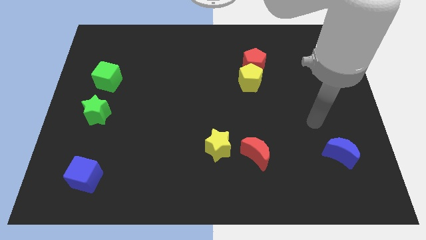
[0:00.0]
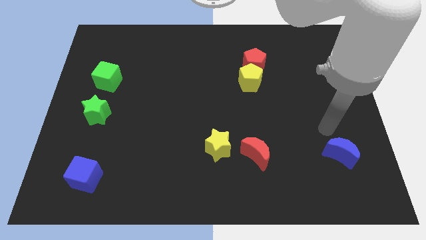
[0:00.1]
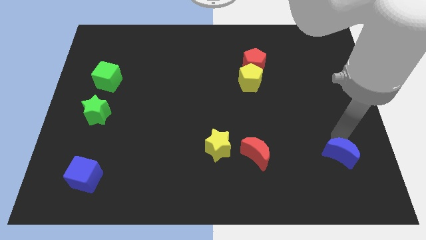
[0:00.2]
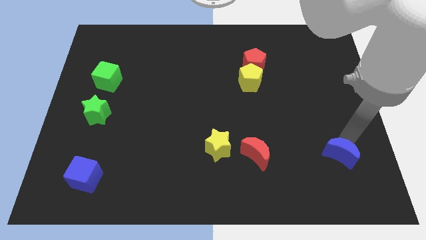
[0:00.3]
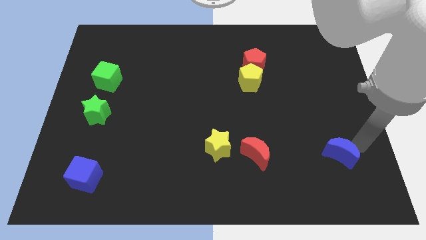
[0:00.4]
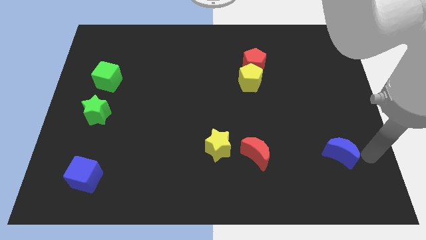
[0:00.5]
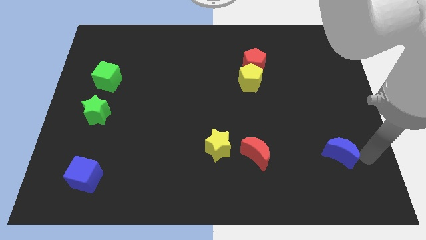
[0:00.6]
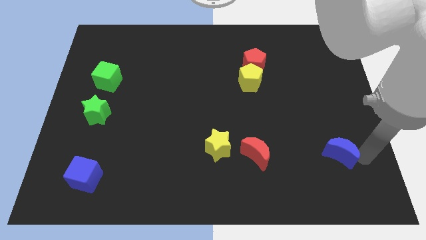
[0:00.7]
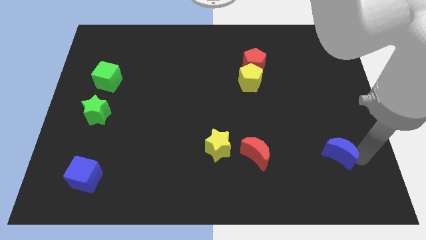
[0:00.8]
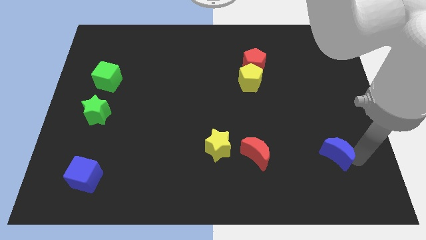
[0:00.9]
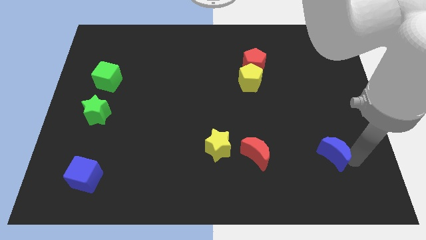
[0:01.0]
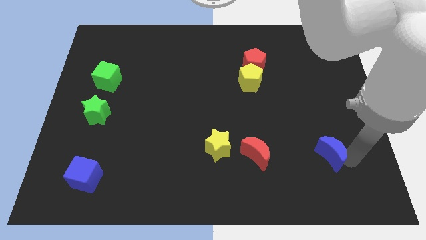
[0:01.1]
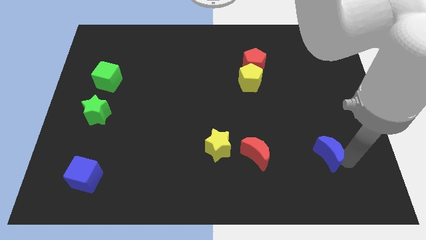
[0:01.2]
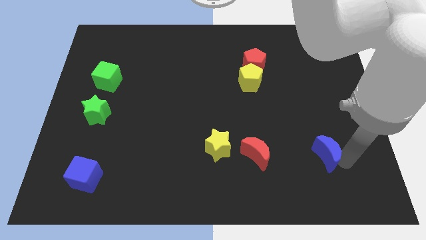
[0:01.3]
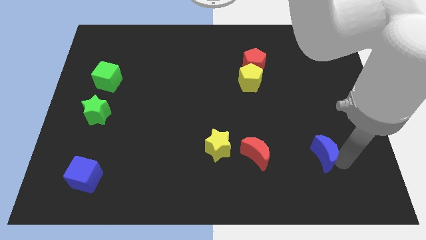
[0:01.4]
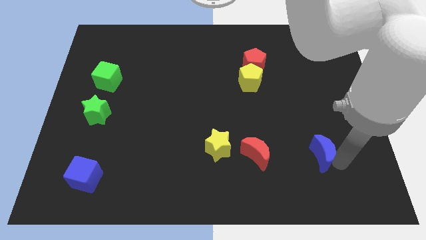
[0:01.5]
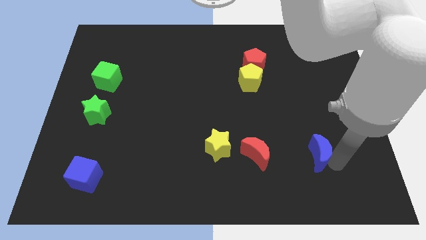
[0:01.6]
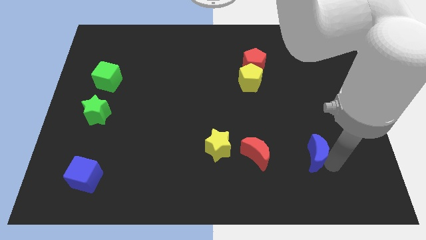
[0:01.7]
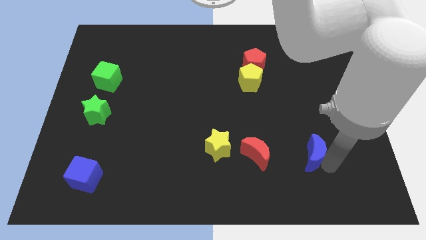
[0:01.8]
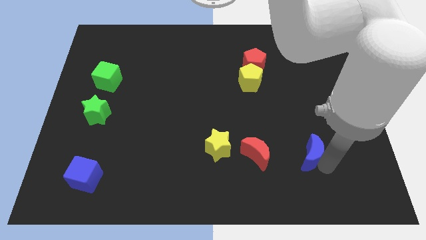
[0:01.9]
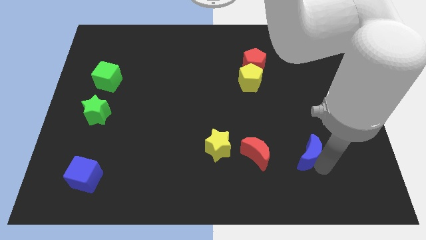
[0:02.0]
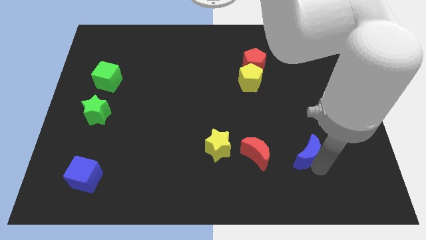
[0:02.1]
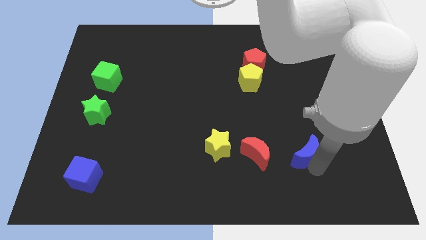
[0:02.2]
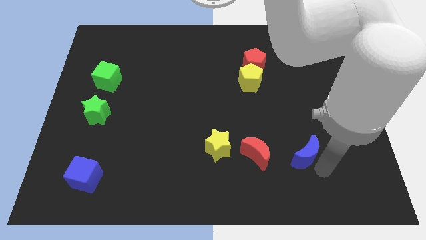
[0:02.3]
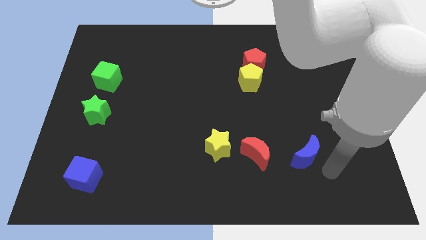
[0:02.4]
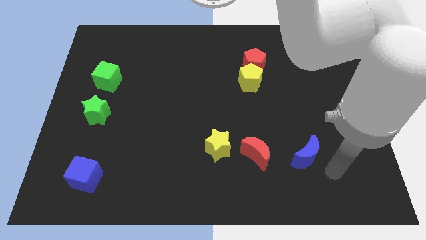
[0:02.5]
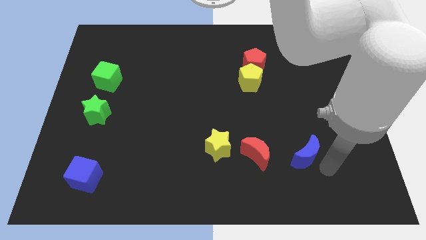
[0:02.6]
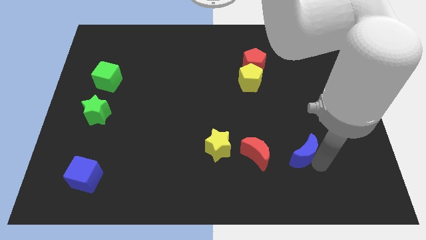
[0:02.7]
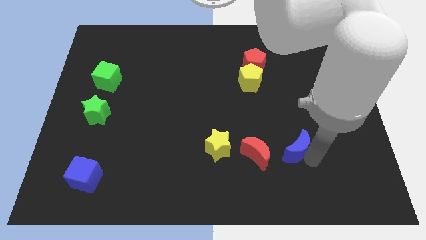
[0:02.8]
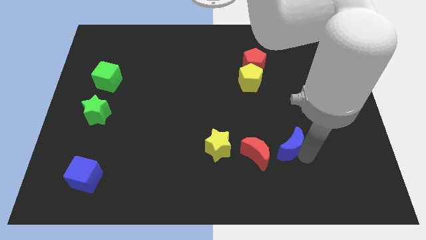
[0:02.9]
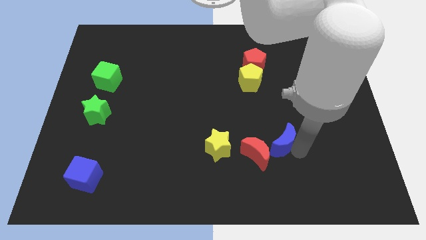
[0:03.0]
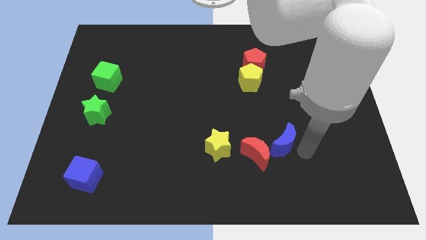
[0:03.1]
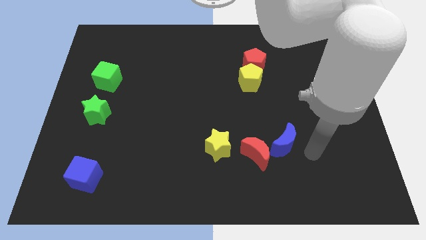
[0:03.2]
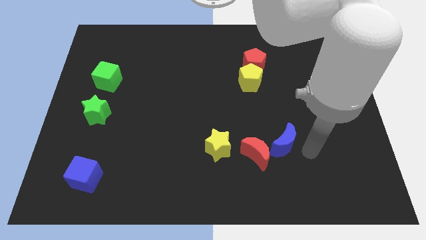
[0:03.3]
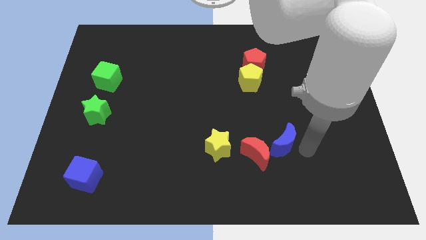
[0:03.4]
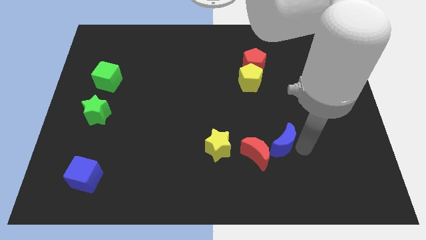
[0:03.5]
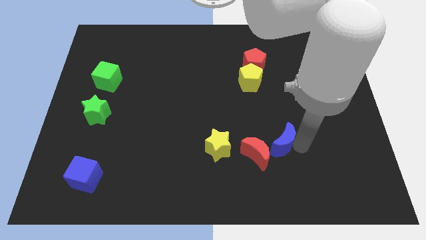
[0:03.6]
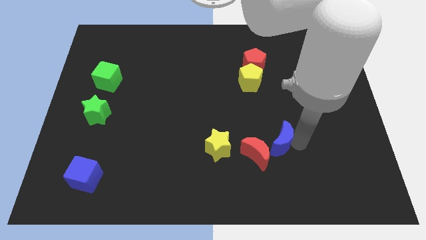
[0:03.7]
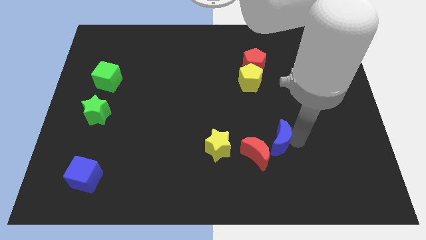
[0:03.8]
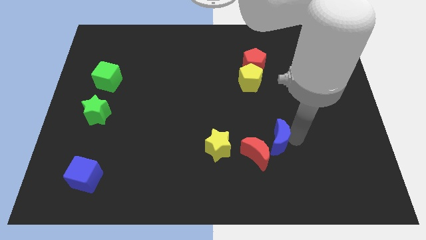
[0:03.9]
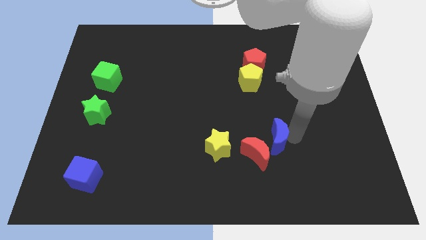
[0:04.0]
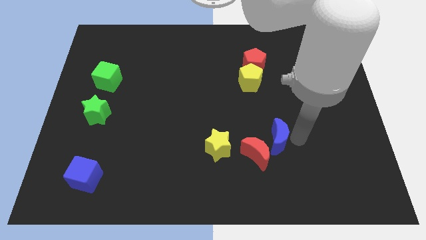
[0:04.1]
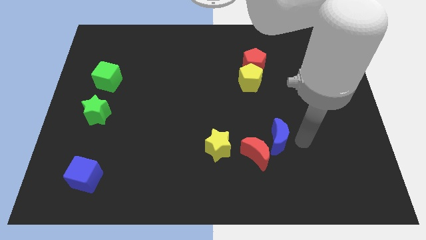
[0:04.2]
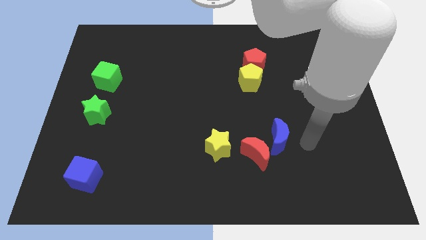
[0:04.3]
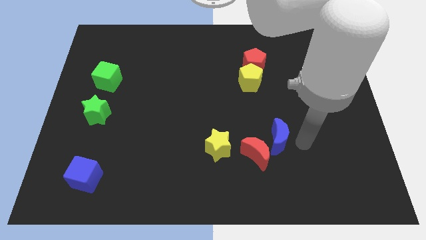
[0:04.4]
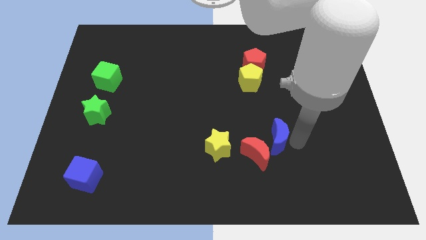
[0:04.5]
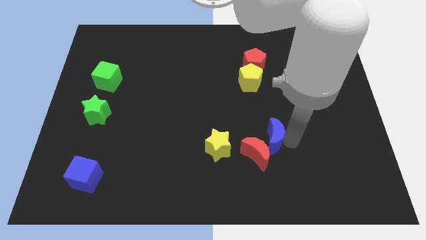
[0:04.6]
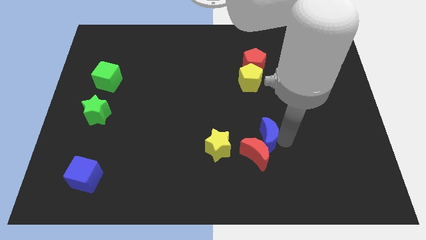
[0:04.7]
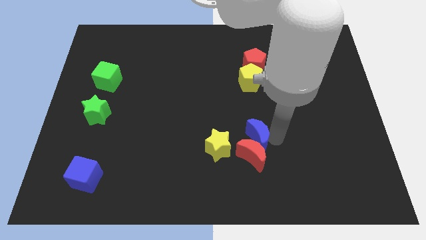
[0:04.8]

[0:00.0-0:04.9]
put the blue moon to the top left of the red moon

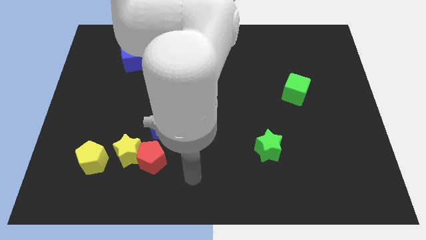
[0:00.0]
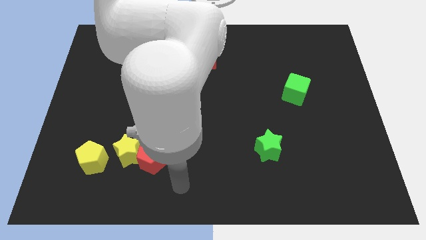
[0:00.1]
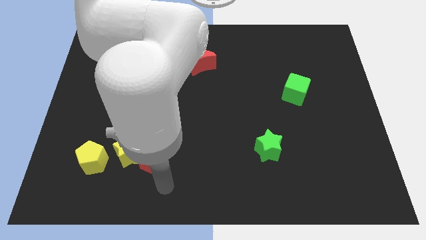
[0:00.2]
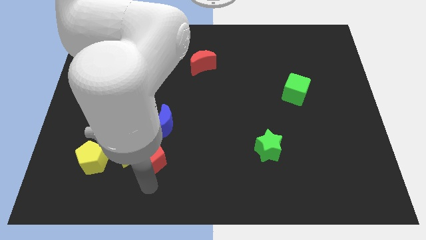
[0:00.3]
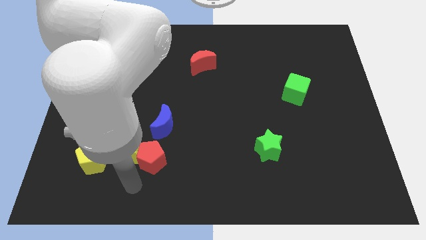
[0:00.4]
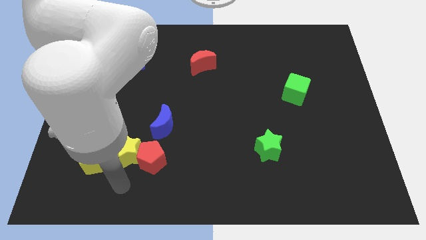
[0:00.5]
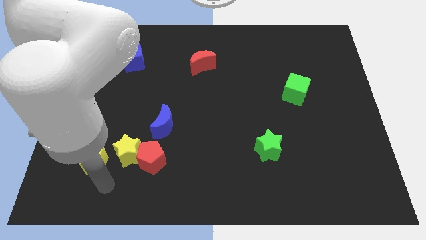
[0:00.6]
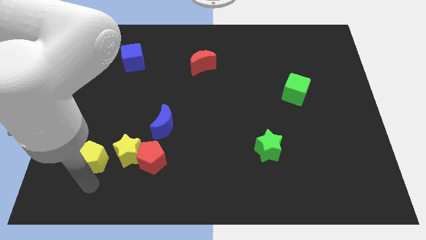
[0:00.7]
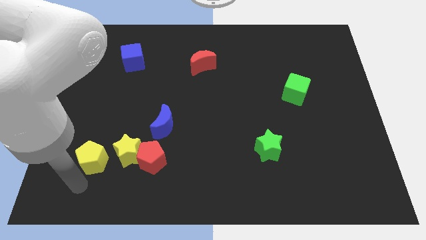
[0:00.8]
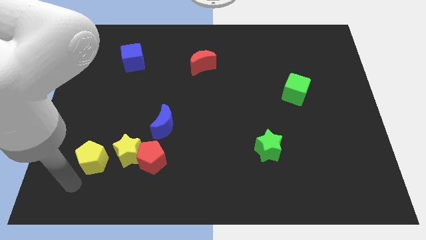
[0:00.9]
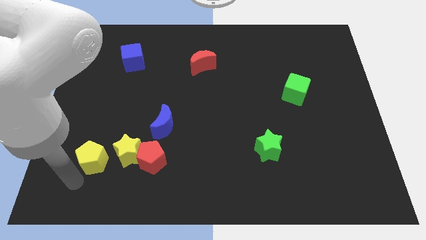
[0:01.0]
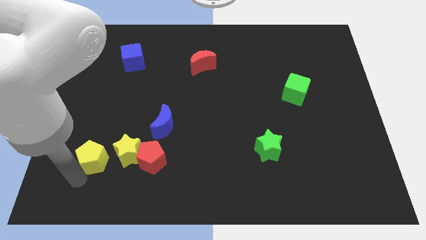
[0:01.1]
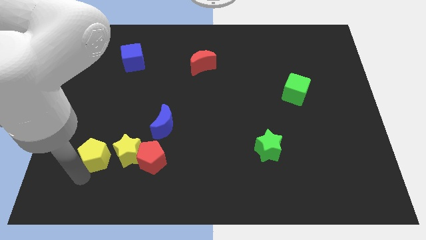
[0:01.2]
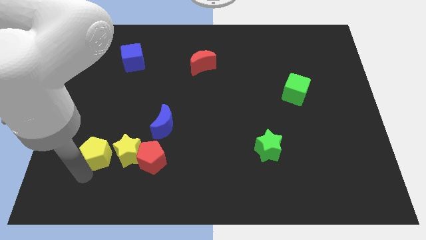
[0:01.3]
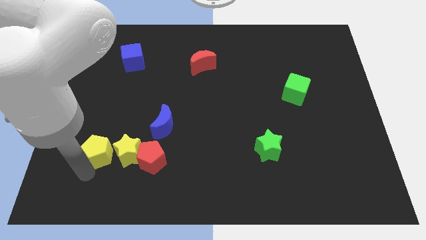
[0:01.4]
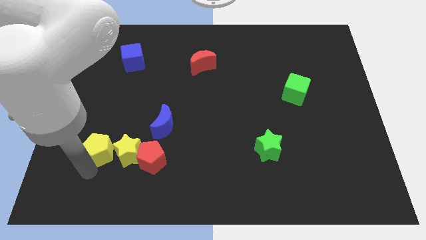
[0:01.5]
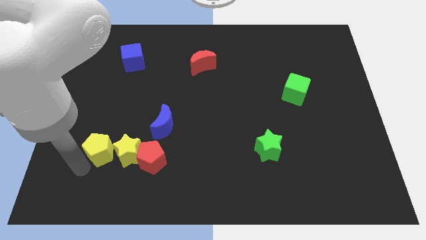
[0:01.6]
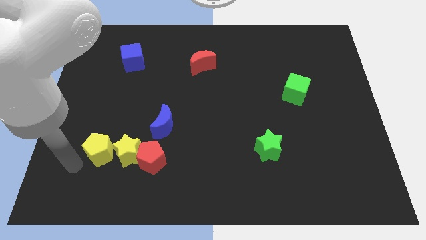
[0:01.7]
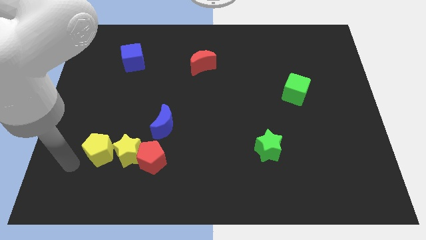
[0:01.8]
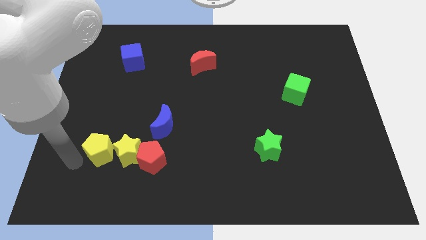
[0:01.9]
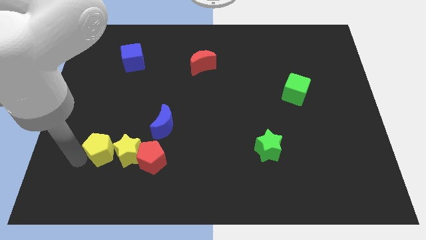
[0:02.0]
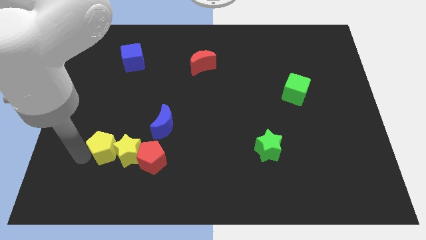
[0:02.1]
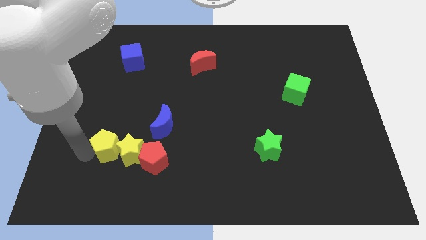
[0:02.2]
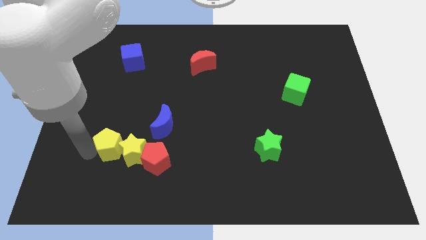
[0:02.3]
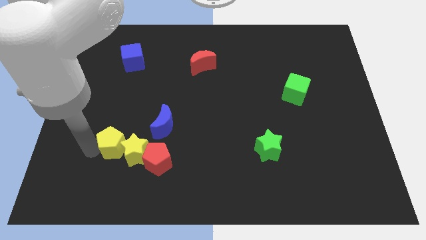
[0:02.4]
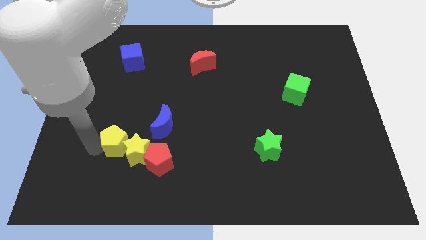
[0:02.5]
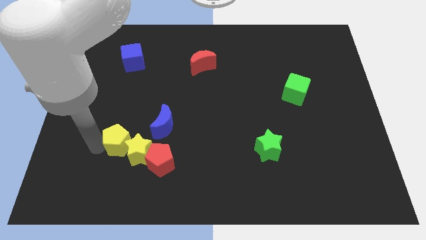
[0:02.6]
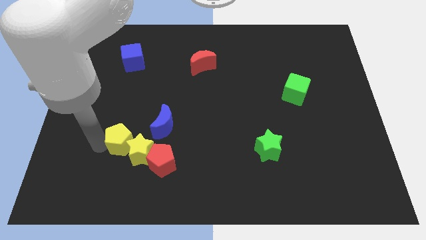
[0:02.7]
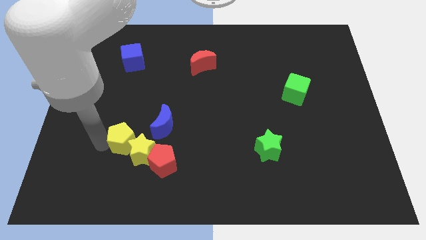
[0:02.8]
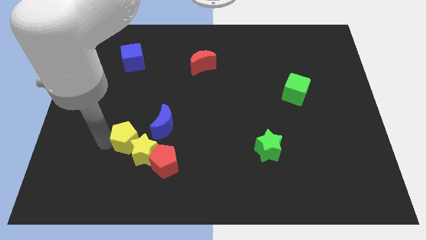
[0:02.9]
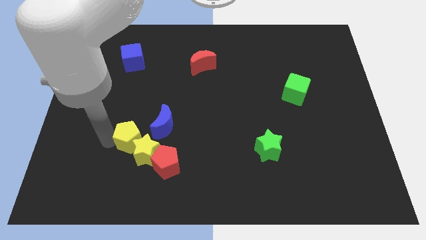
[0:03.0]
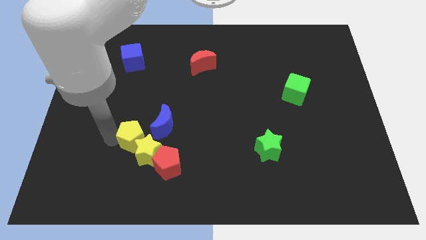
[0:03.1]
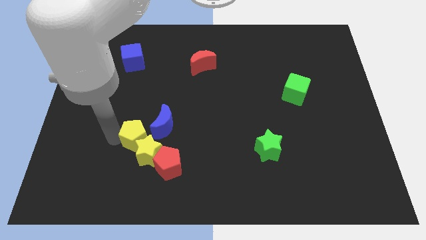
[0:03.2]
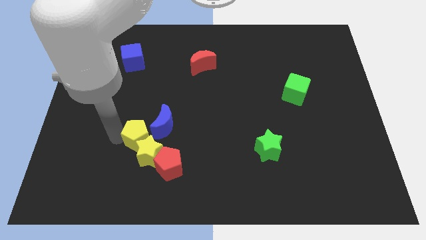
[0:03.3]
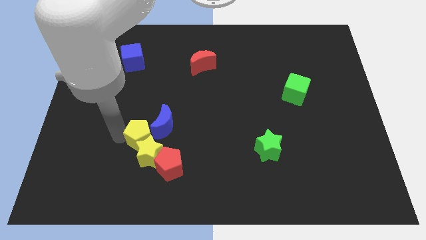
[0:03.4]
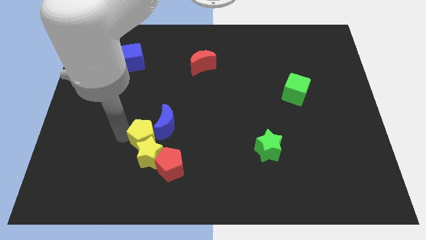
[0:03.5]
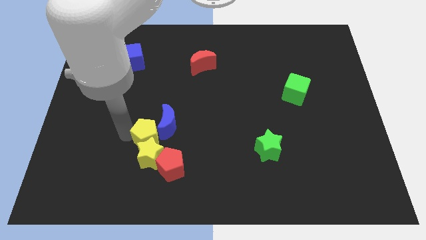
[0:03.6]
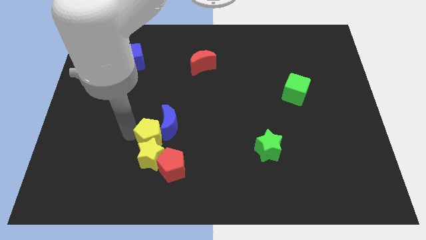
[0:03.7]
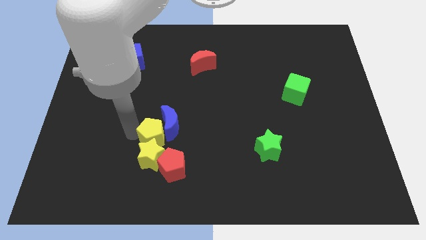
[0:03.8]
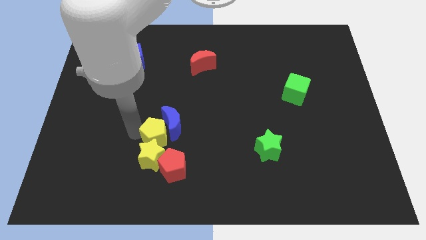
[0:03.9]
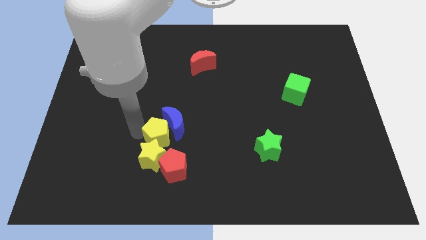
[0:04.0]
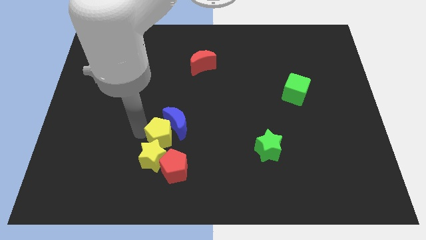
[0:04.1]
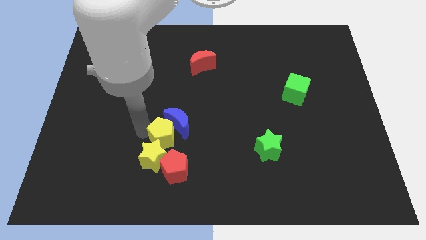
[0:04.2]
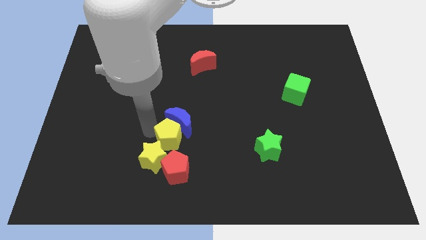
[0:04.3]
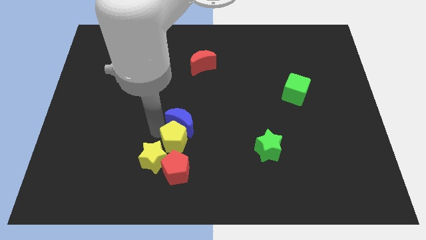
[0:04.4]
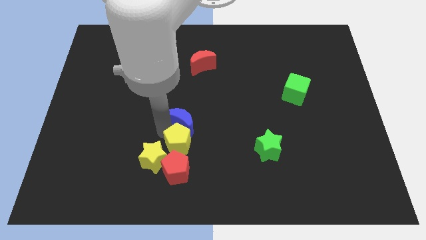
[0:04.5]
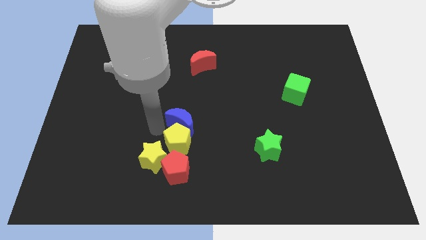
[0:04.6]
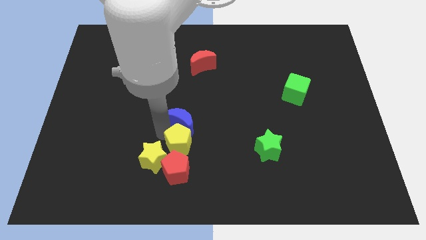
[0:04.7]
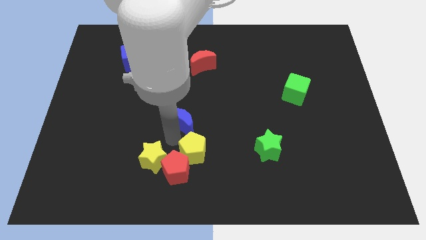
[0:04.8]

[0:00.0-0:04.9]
move the yellow pentagon just right of the red pentagon
